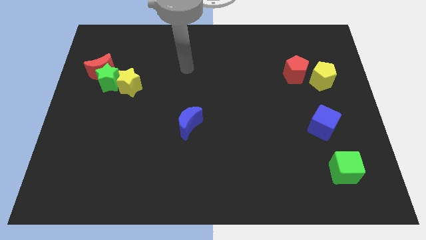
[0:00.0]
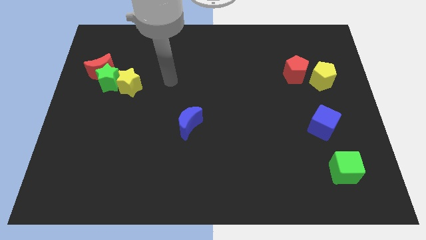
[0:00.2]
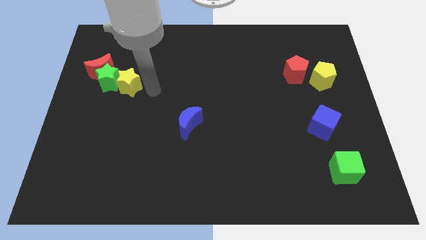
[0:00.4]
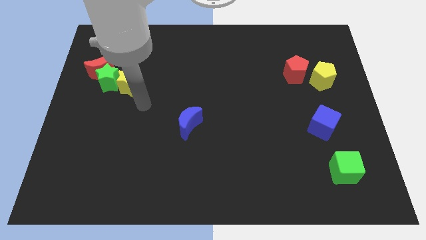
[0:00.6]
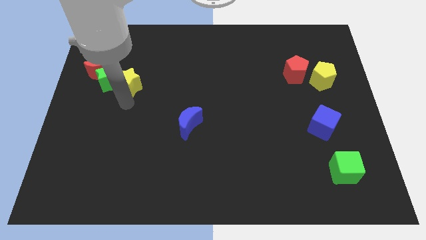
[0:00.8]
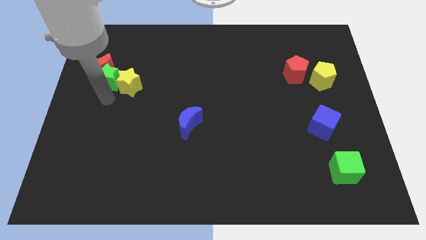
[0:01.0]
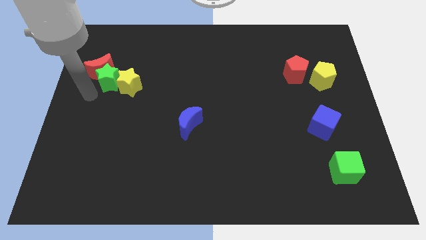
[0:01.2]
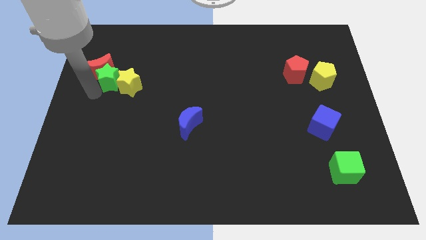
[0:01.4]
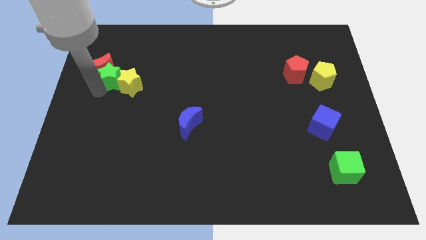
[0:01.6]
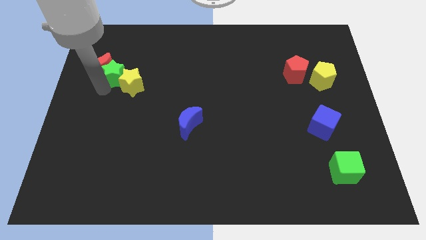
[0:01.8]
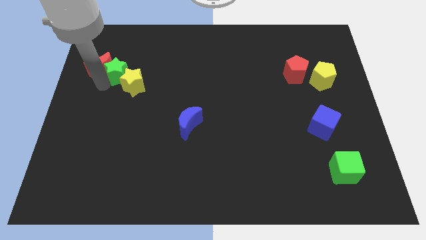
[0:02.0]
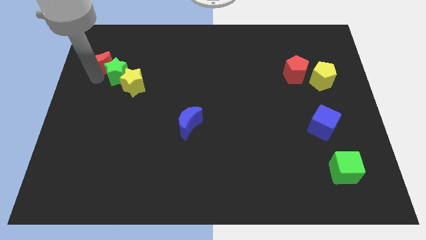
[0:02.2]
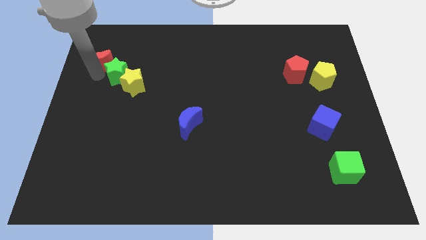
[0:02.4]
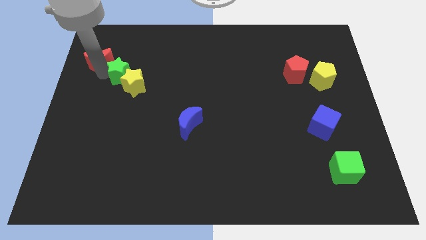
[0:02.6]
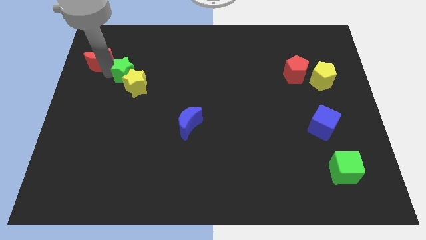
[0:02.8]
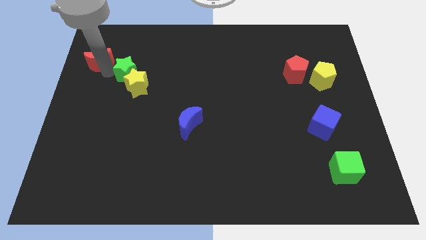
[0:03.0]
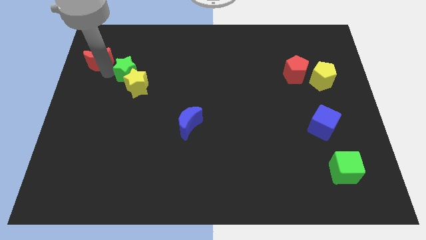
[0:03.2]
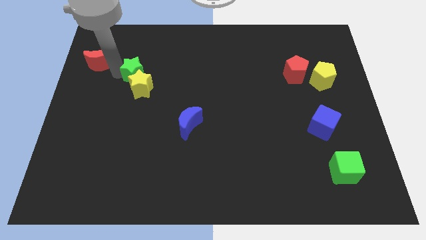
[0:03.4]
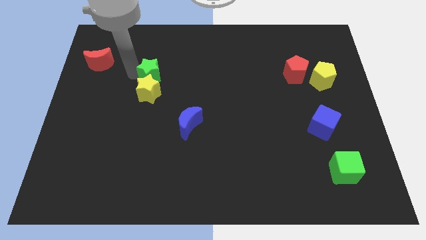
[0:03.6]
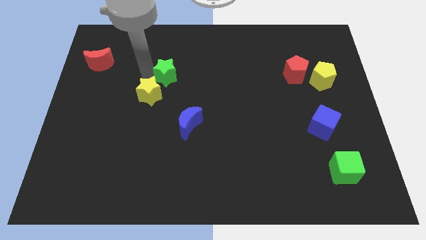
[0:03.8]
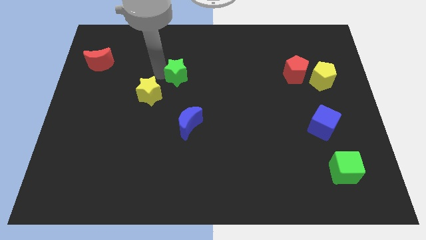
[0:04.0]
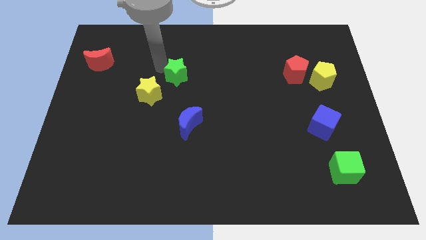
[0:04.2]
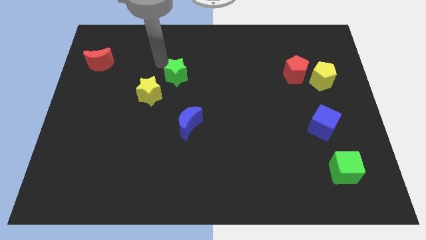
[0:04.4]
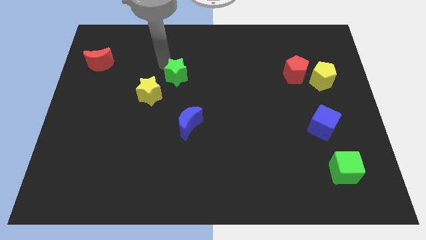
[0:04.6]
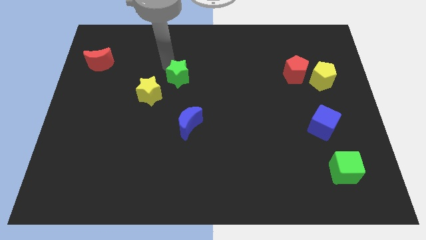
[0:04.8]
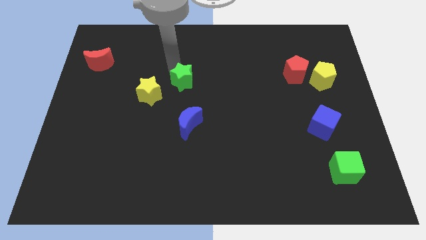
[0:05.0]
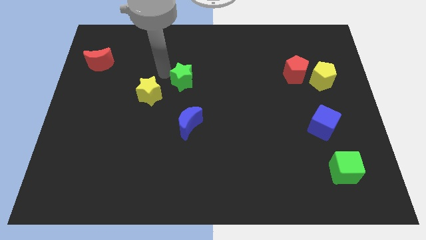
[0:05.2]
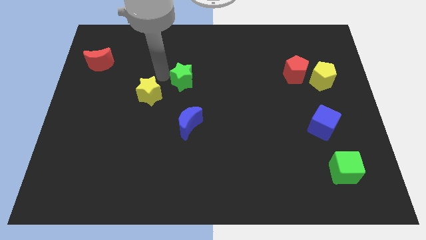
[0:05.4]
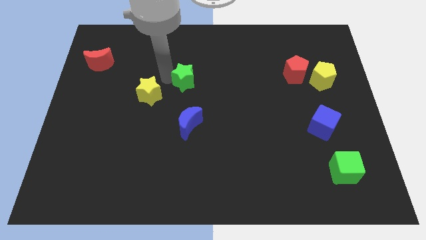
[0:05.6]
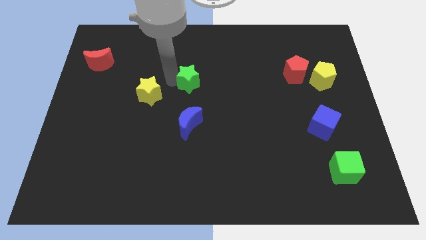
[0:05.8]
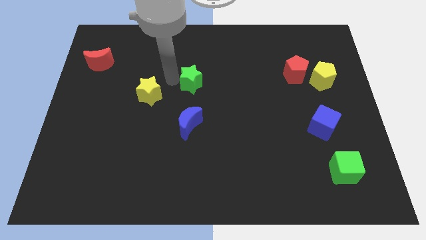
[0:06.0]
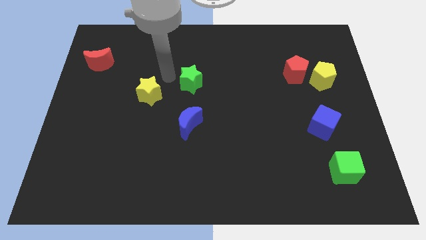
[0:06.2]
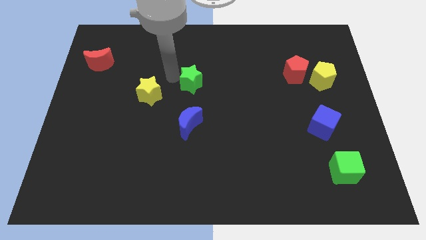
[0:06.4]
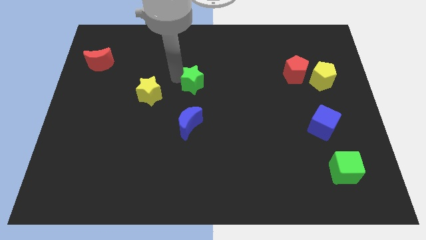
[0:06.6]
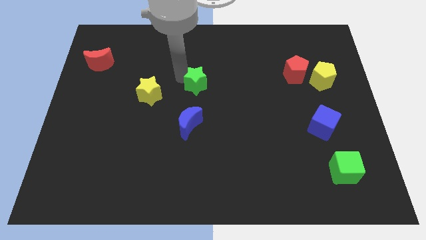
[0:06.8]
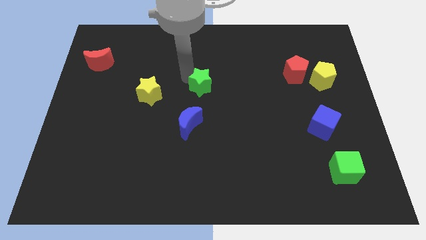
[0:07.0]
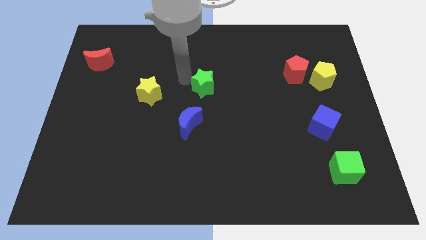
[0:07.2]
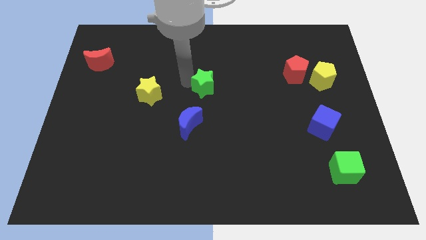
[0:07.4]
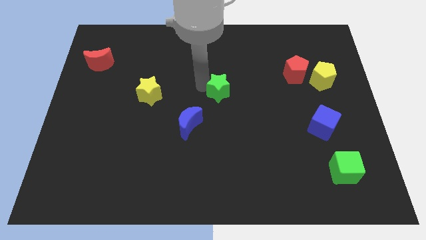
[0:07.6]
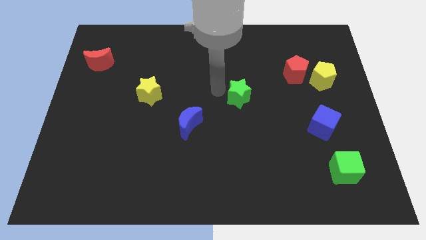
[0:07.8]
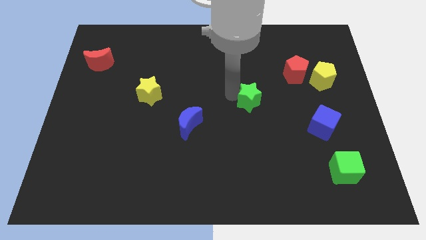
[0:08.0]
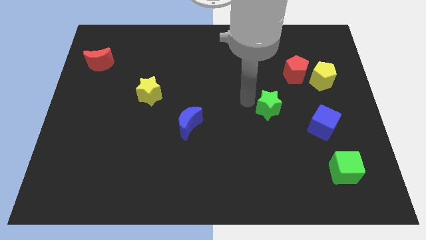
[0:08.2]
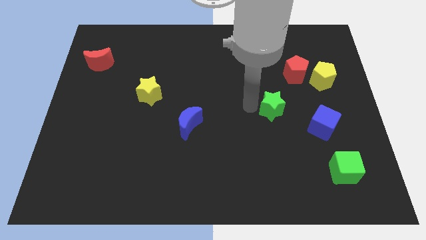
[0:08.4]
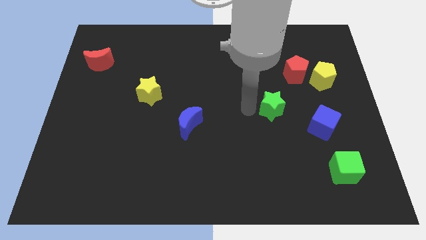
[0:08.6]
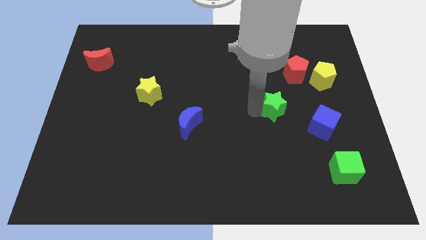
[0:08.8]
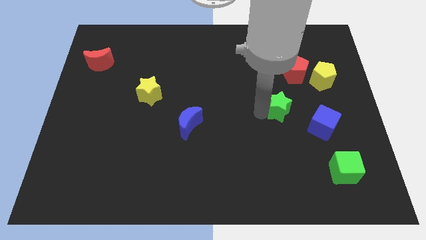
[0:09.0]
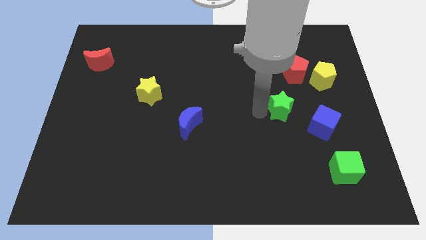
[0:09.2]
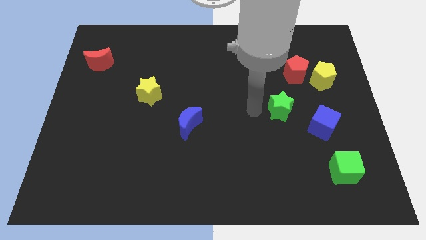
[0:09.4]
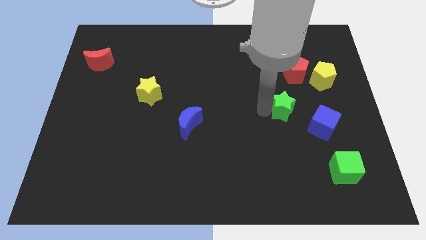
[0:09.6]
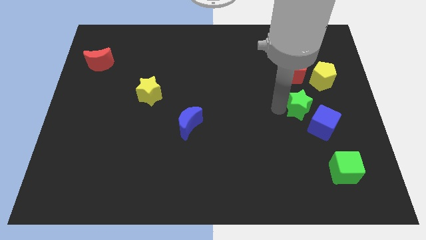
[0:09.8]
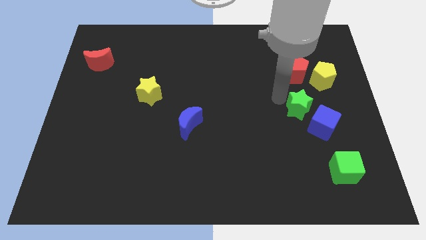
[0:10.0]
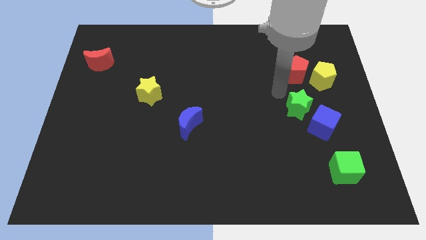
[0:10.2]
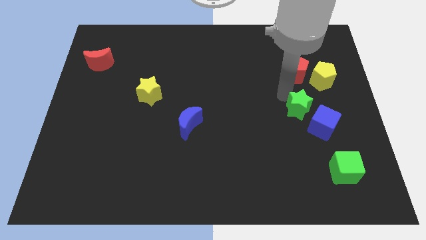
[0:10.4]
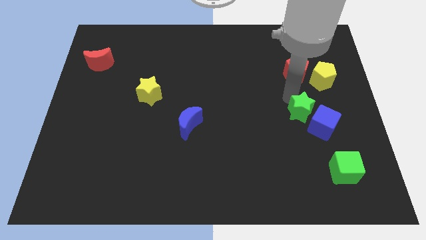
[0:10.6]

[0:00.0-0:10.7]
slide the green star close to the blue cube

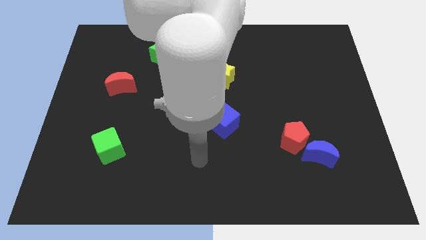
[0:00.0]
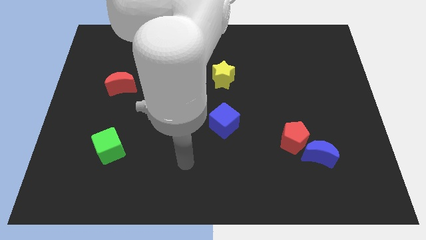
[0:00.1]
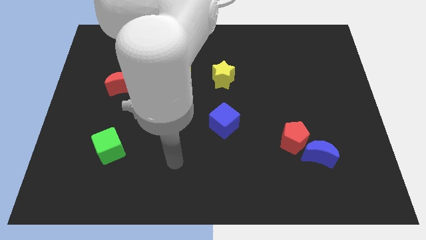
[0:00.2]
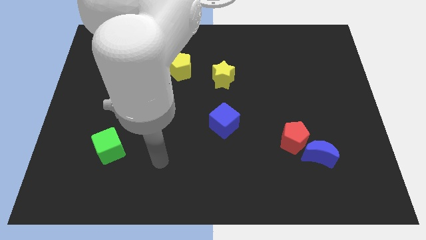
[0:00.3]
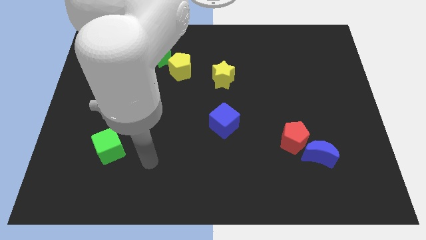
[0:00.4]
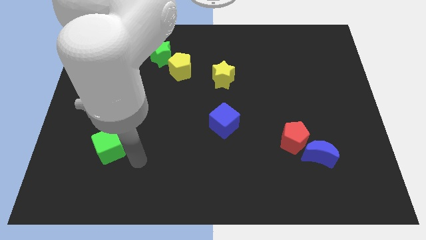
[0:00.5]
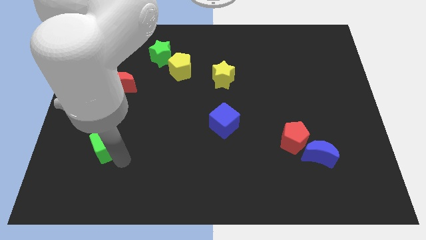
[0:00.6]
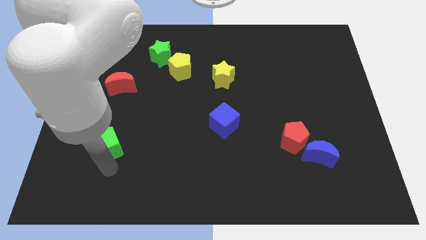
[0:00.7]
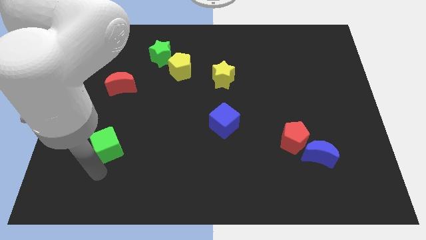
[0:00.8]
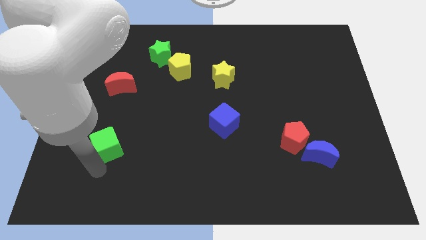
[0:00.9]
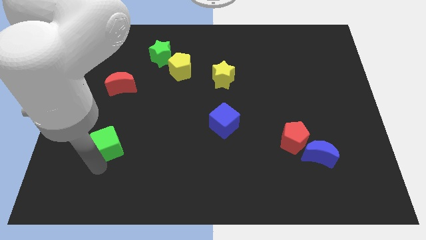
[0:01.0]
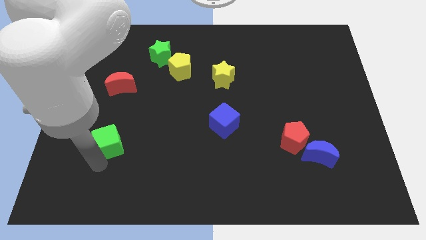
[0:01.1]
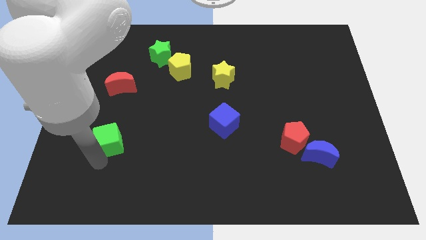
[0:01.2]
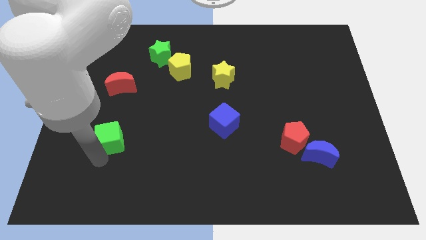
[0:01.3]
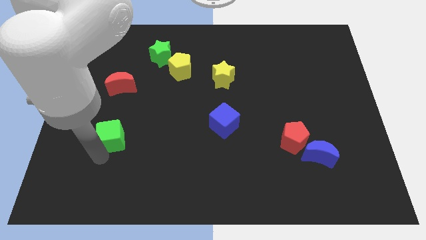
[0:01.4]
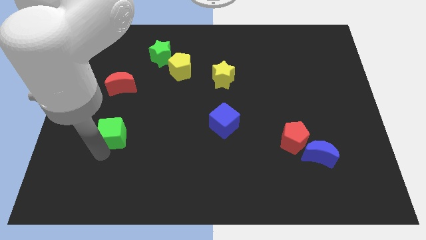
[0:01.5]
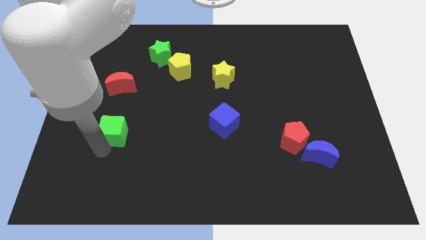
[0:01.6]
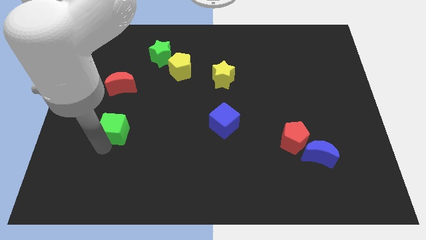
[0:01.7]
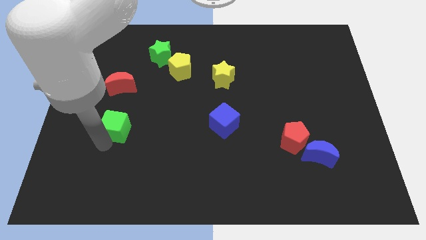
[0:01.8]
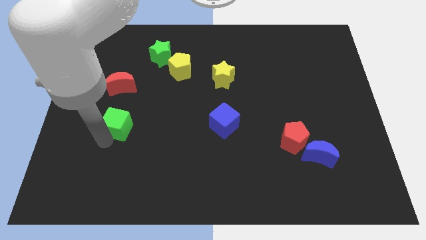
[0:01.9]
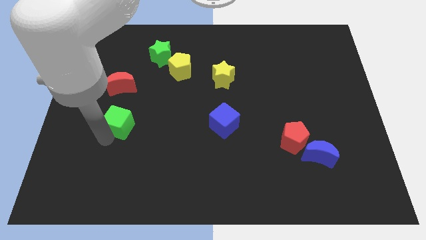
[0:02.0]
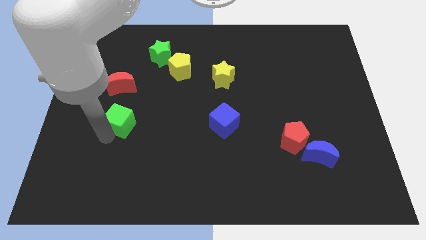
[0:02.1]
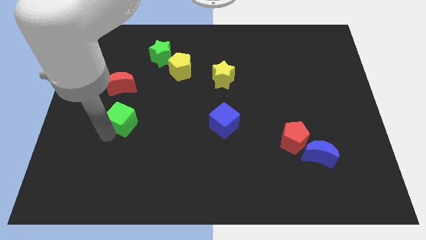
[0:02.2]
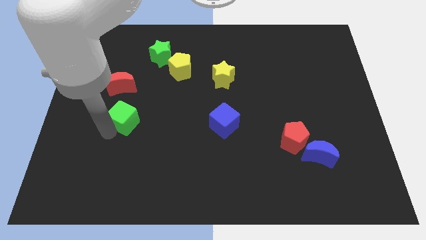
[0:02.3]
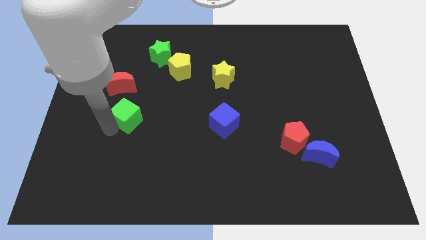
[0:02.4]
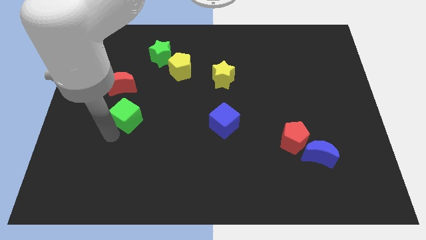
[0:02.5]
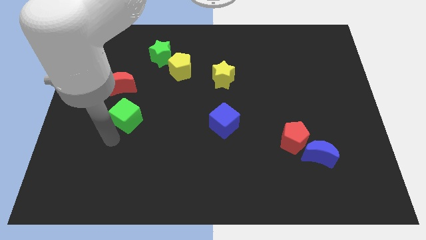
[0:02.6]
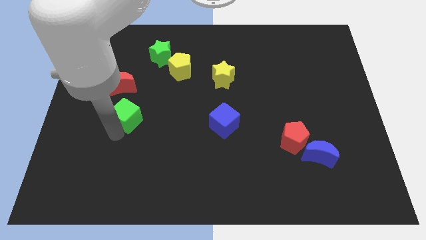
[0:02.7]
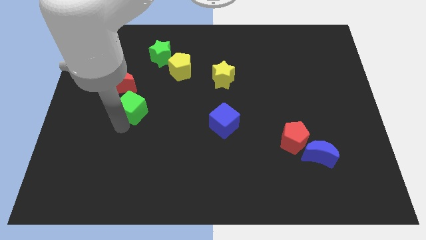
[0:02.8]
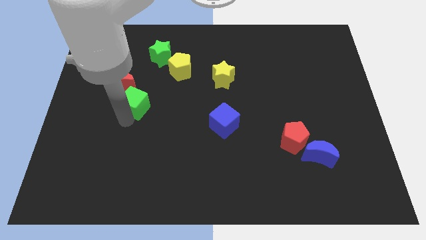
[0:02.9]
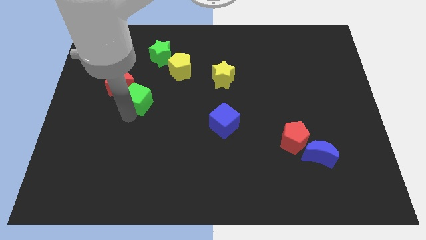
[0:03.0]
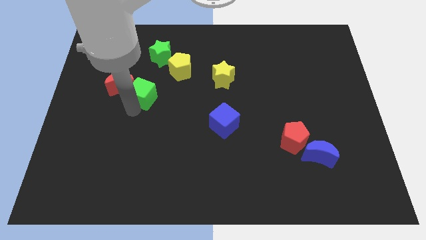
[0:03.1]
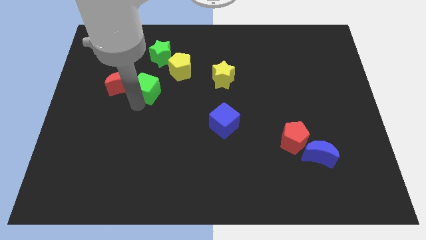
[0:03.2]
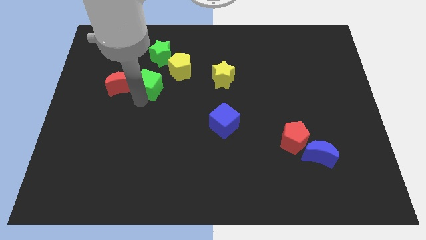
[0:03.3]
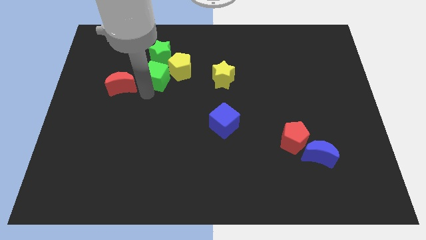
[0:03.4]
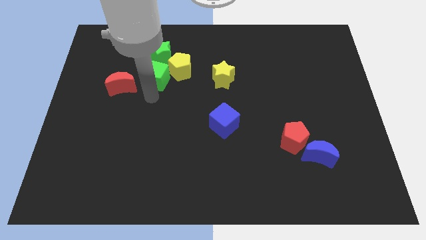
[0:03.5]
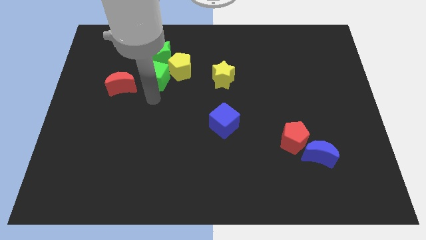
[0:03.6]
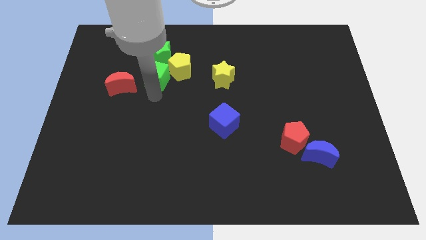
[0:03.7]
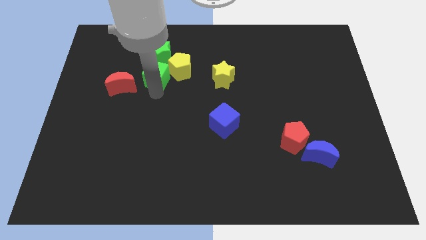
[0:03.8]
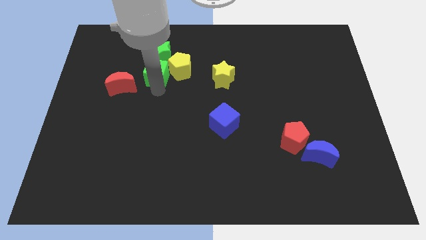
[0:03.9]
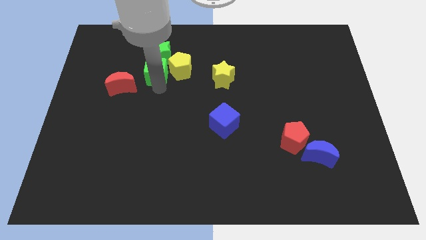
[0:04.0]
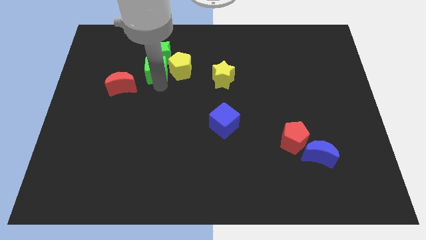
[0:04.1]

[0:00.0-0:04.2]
put the green cube next to the green star
